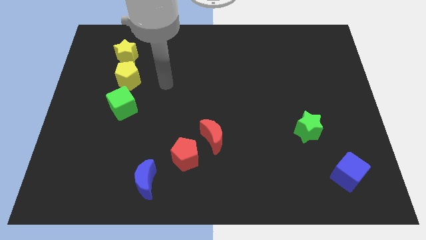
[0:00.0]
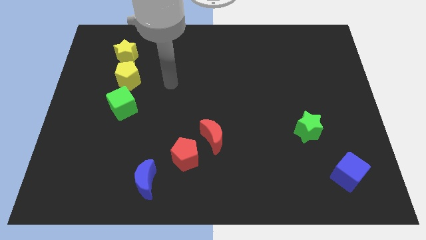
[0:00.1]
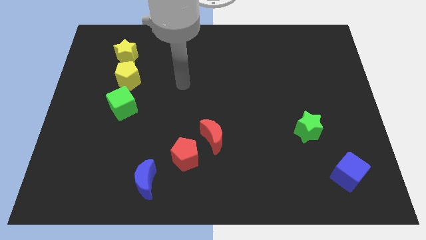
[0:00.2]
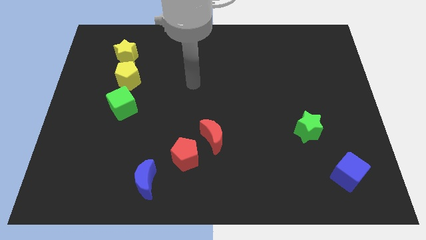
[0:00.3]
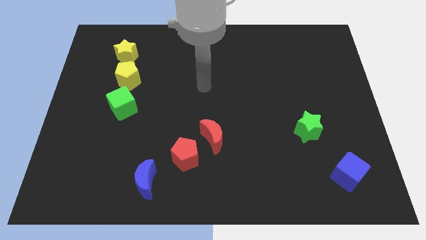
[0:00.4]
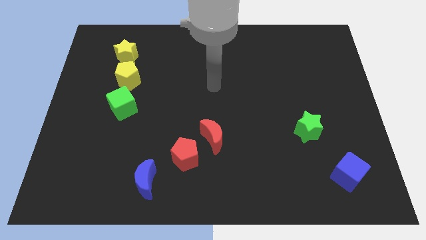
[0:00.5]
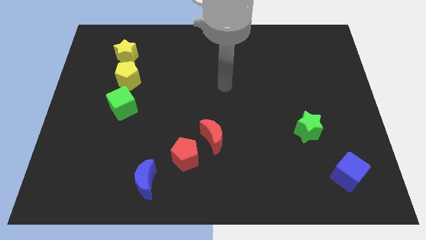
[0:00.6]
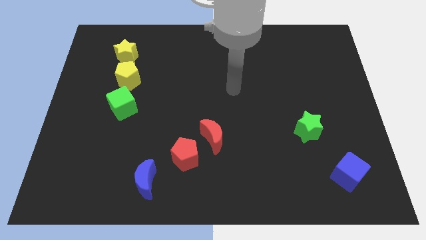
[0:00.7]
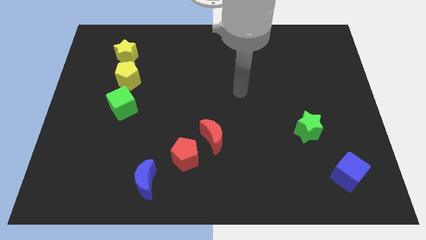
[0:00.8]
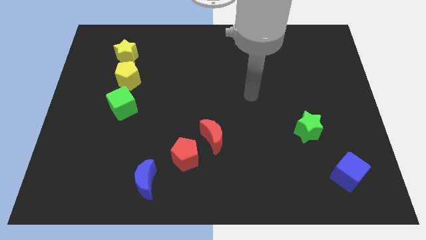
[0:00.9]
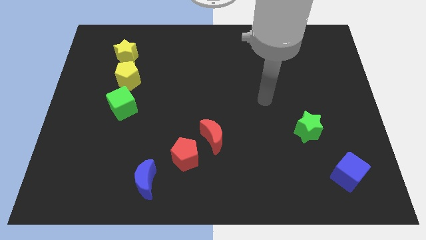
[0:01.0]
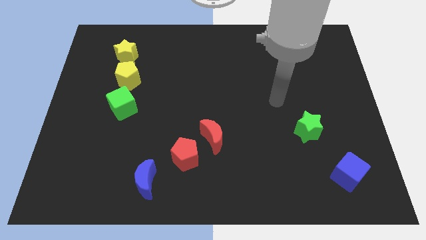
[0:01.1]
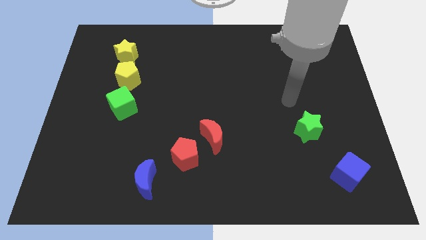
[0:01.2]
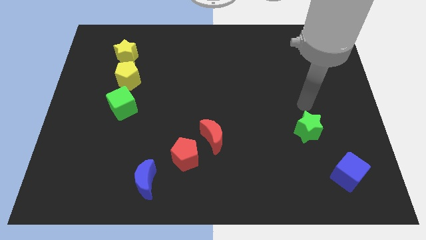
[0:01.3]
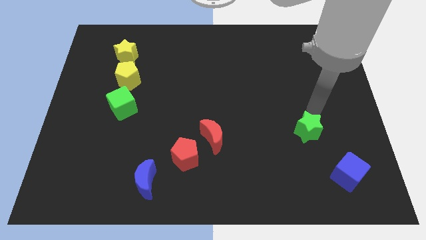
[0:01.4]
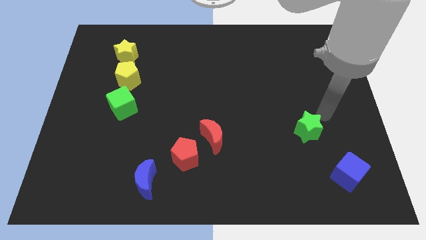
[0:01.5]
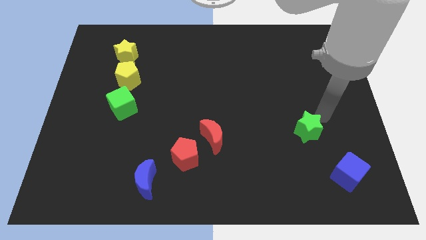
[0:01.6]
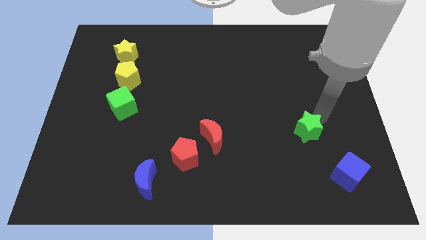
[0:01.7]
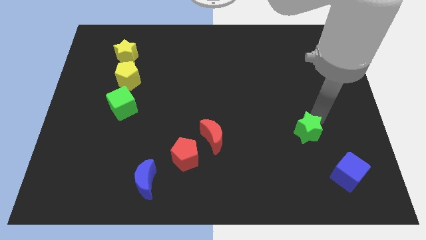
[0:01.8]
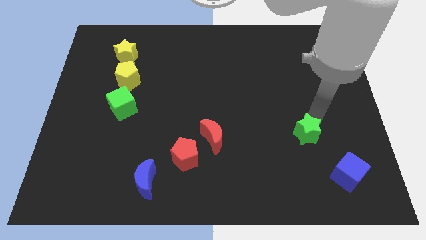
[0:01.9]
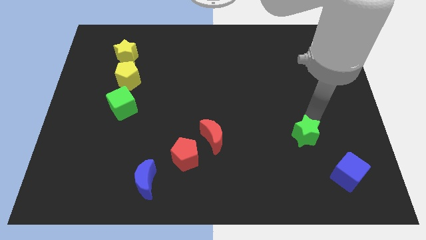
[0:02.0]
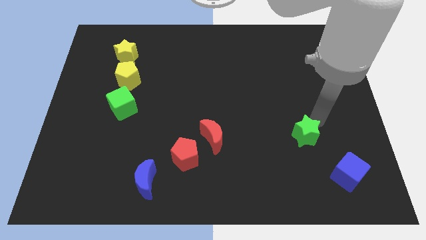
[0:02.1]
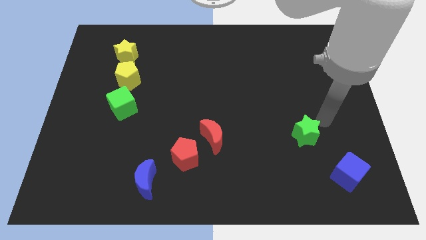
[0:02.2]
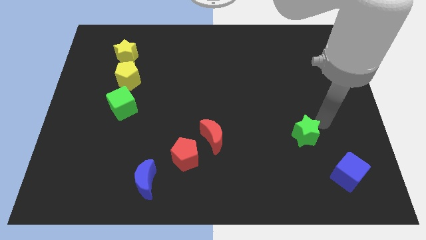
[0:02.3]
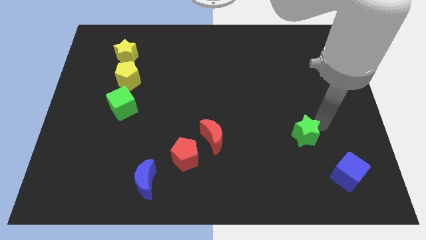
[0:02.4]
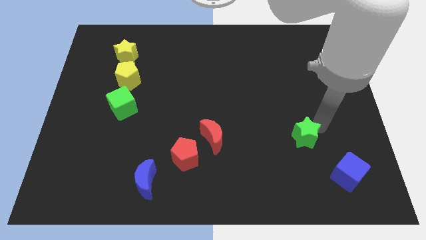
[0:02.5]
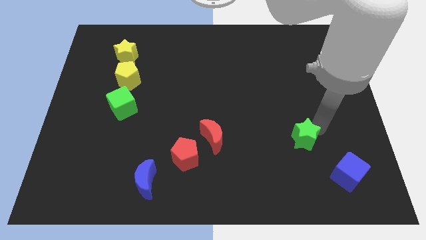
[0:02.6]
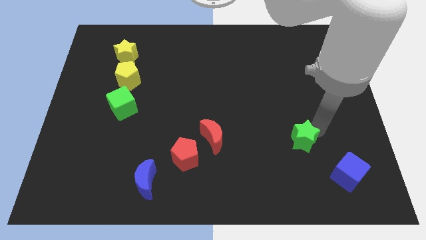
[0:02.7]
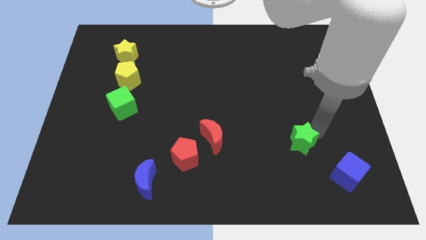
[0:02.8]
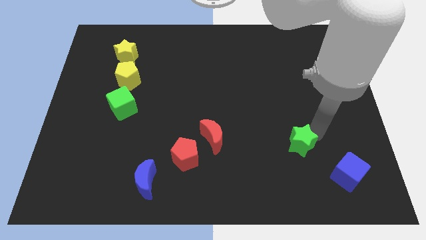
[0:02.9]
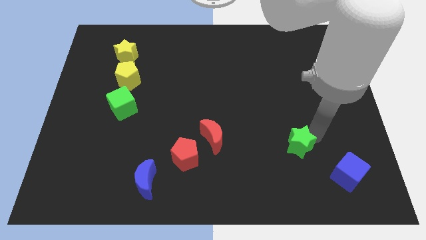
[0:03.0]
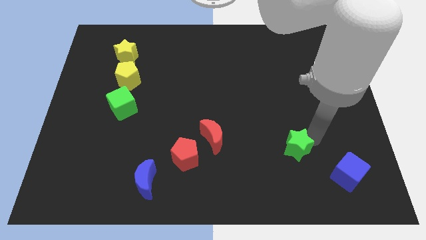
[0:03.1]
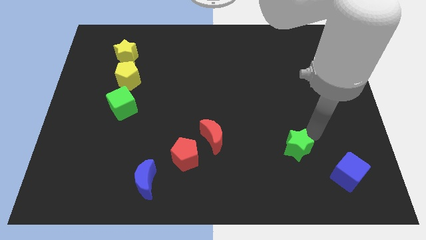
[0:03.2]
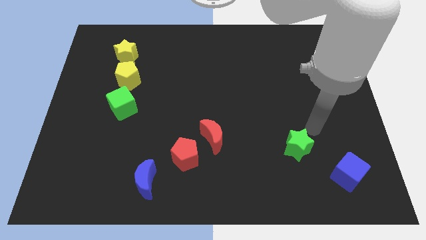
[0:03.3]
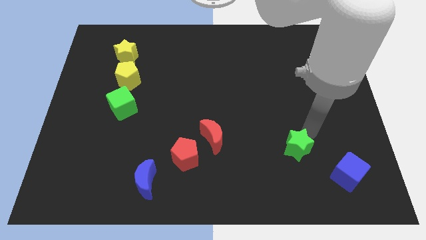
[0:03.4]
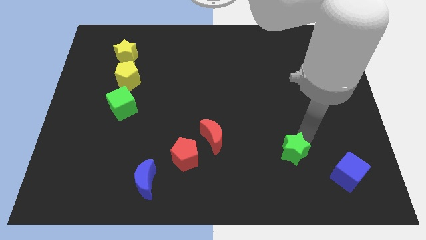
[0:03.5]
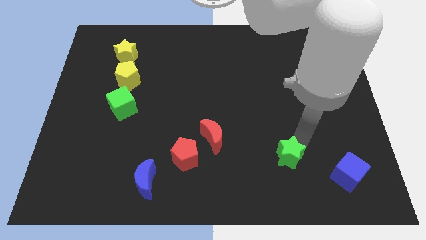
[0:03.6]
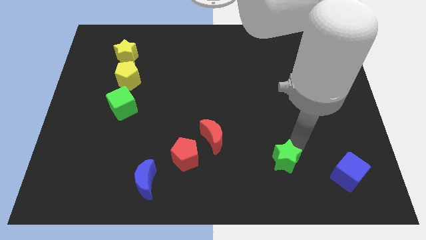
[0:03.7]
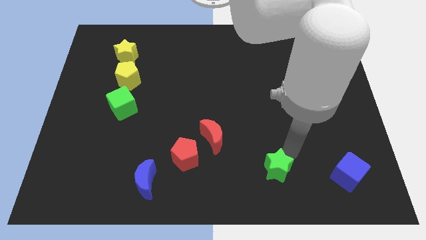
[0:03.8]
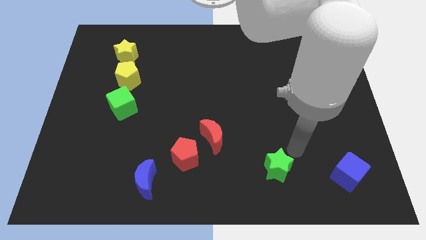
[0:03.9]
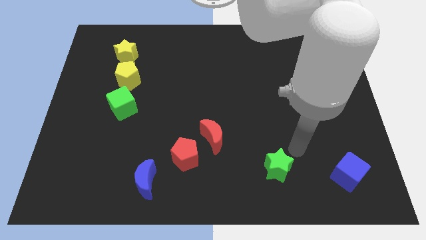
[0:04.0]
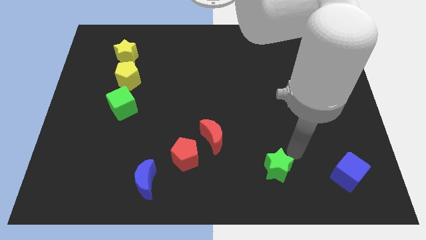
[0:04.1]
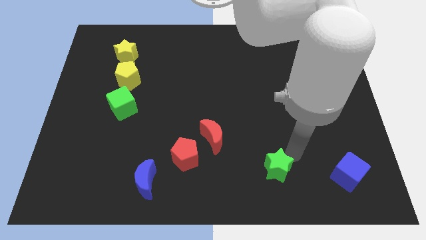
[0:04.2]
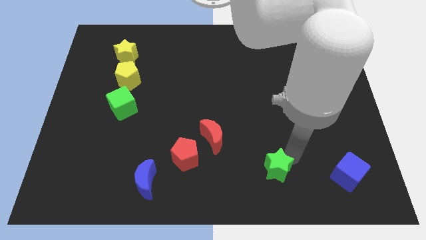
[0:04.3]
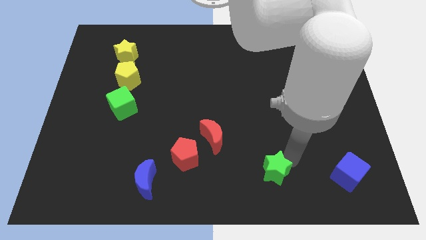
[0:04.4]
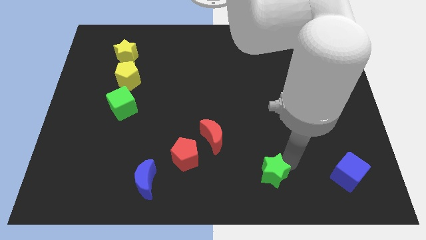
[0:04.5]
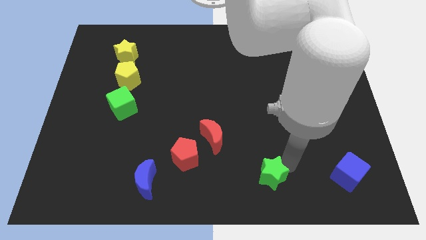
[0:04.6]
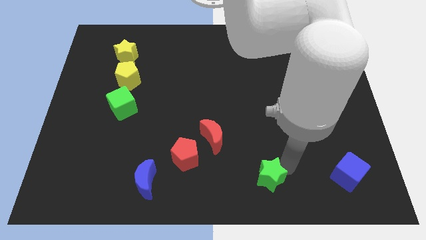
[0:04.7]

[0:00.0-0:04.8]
move the green star to the bottom

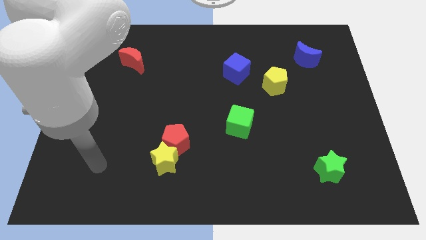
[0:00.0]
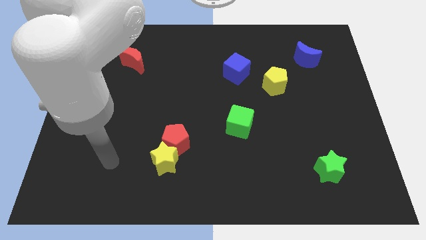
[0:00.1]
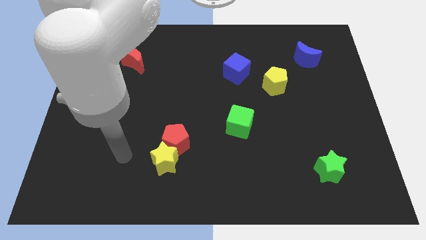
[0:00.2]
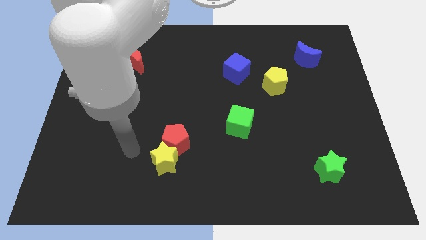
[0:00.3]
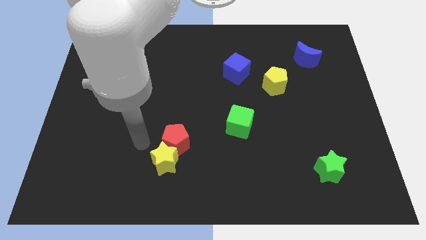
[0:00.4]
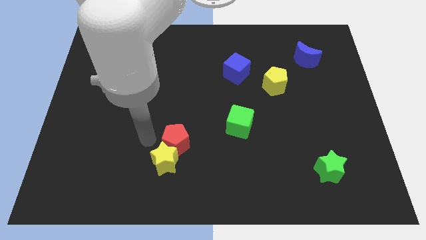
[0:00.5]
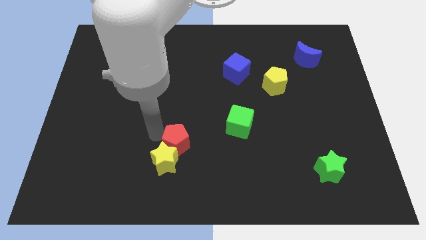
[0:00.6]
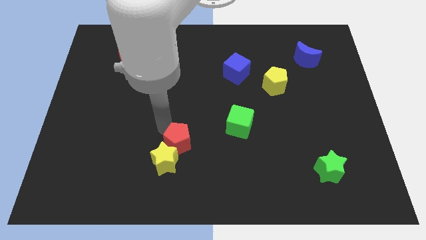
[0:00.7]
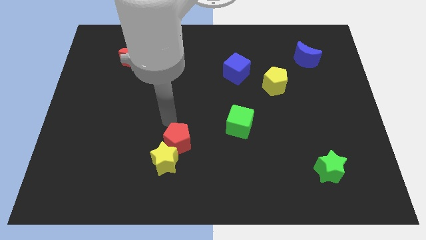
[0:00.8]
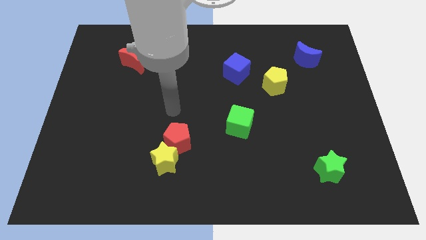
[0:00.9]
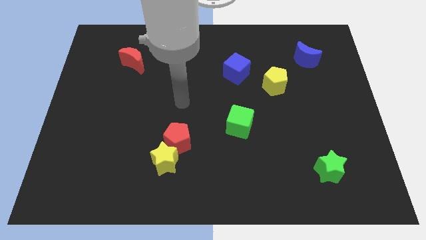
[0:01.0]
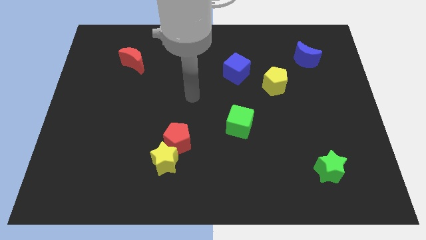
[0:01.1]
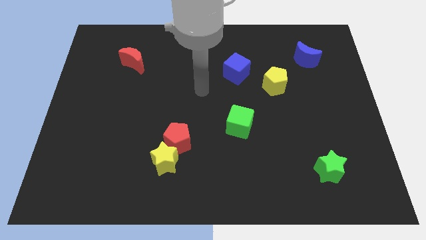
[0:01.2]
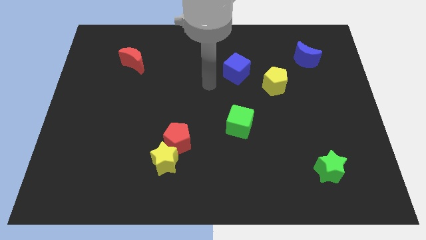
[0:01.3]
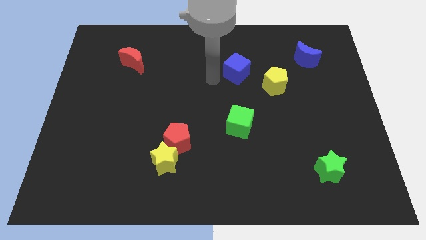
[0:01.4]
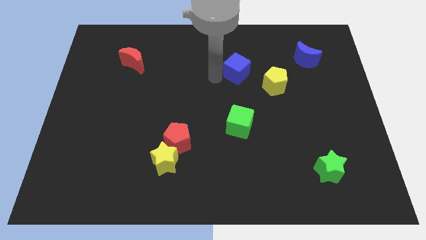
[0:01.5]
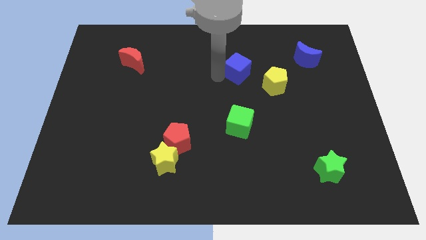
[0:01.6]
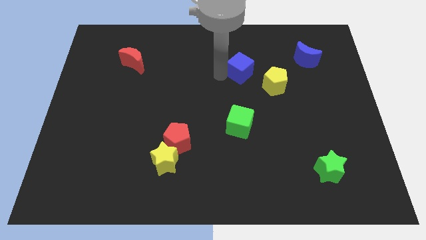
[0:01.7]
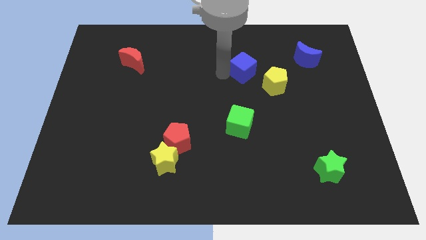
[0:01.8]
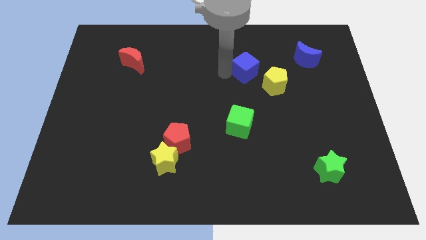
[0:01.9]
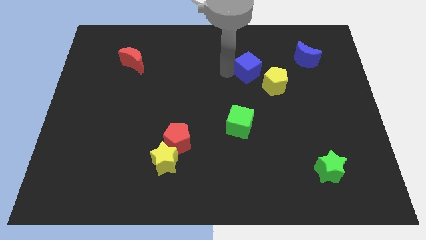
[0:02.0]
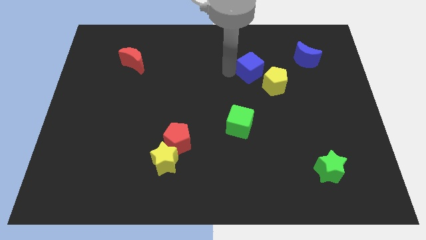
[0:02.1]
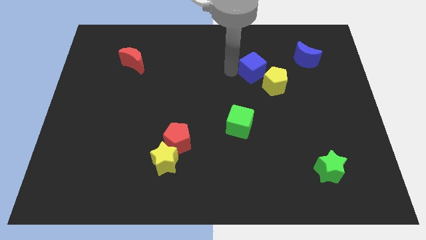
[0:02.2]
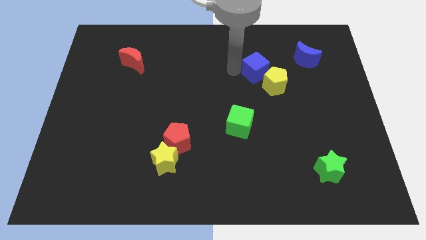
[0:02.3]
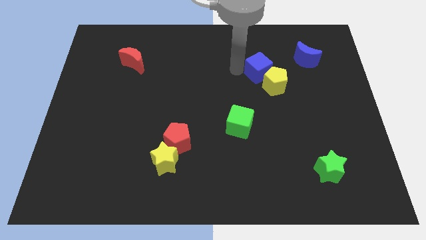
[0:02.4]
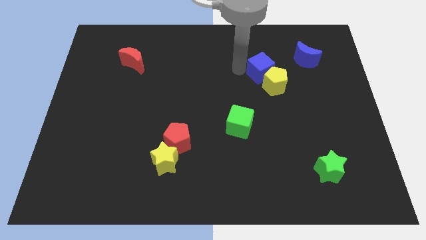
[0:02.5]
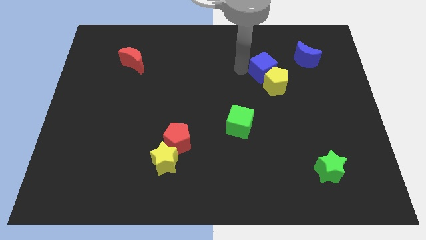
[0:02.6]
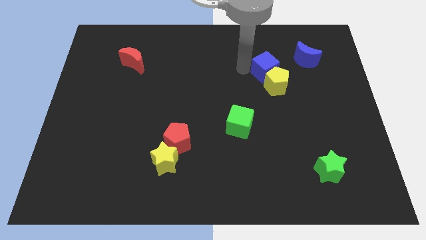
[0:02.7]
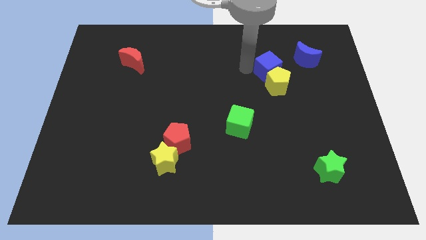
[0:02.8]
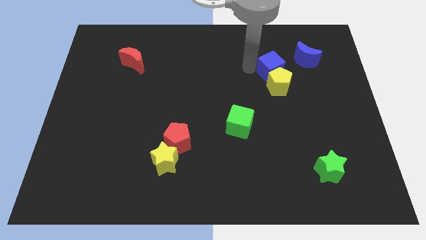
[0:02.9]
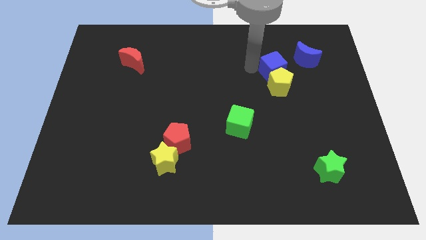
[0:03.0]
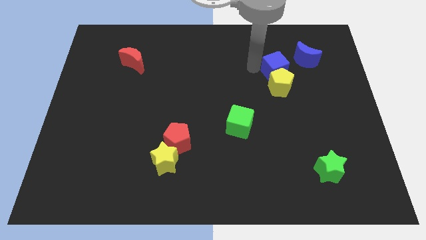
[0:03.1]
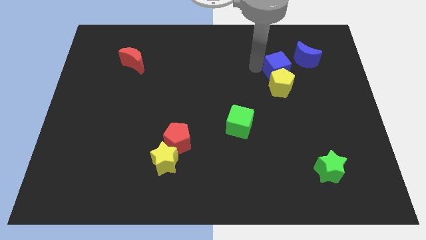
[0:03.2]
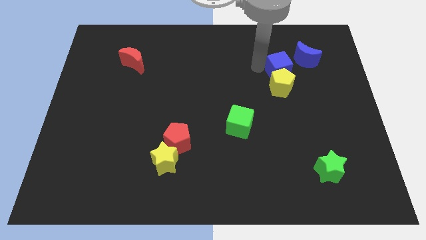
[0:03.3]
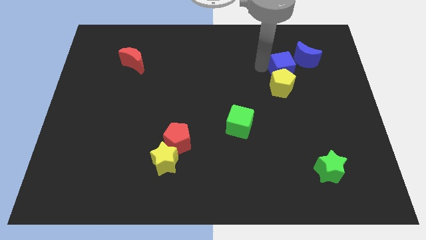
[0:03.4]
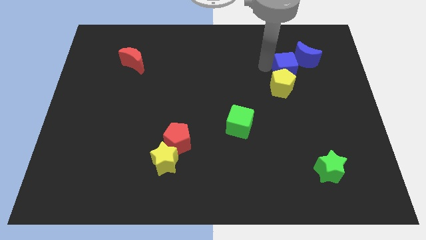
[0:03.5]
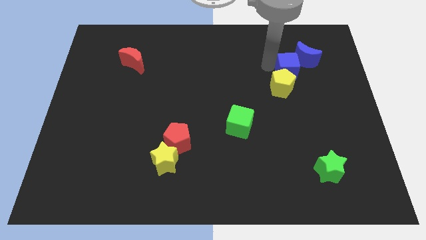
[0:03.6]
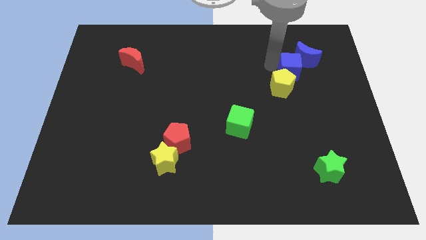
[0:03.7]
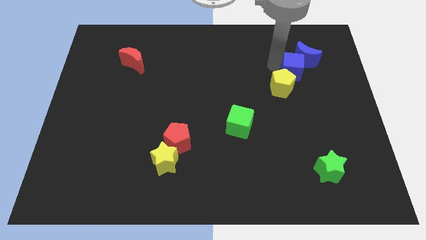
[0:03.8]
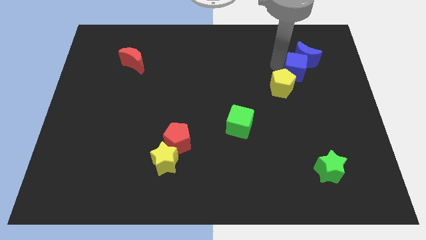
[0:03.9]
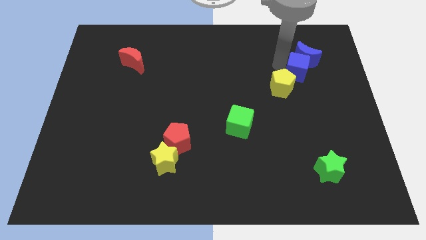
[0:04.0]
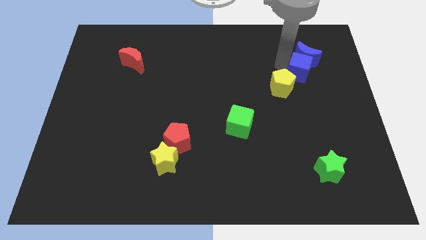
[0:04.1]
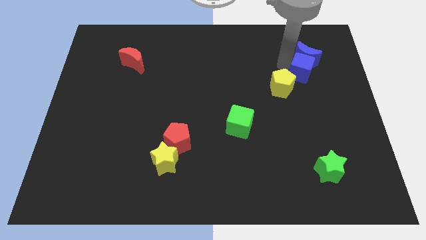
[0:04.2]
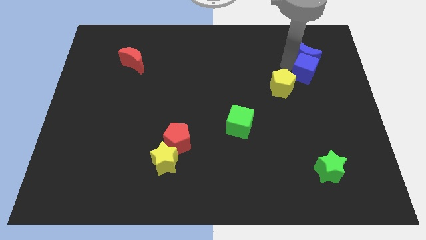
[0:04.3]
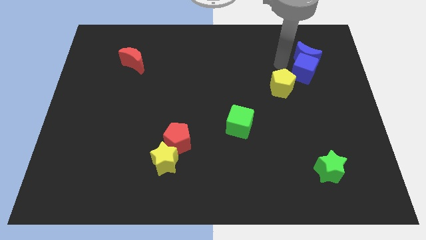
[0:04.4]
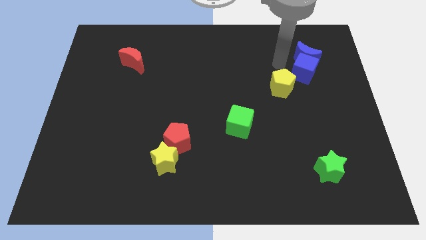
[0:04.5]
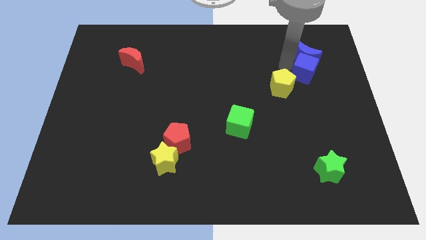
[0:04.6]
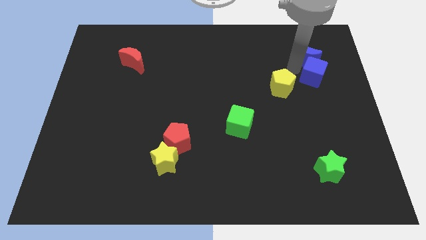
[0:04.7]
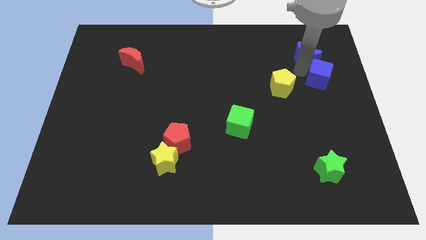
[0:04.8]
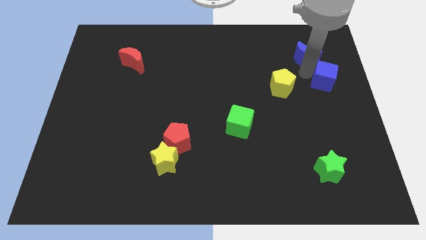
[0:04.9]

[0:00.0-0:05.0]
put the blue cube to the center right
